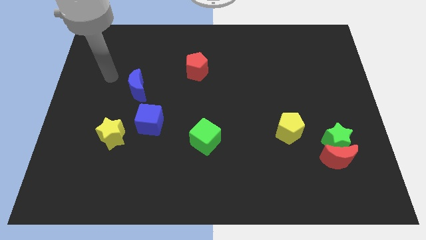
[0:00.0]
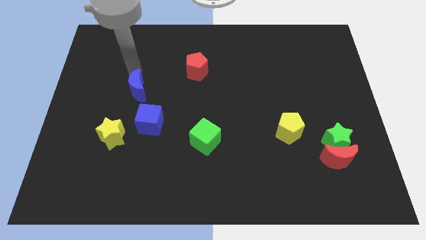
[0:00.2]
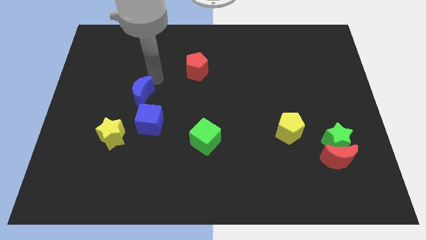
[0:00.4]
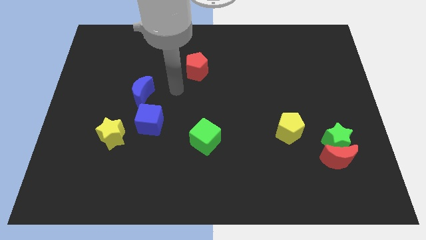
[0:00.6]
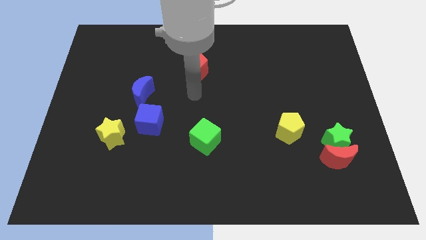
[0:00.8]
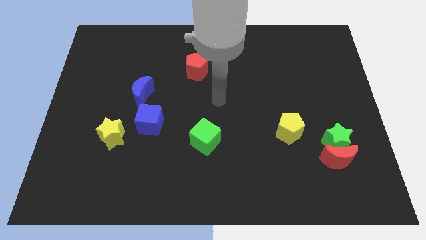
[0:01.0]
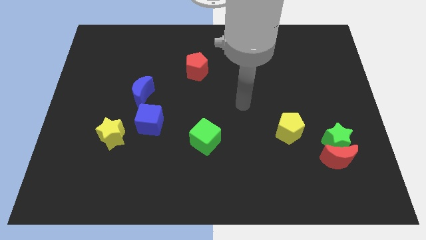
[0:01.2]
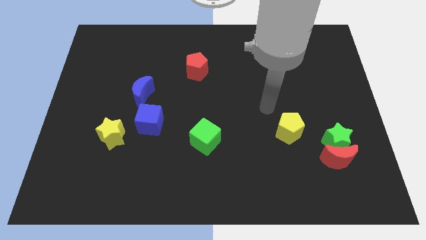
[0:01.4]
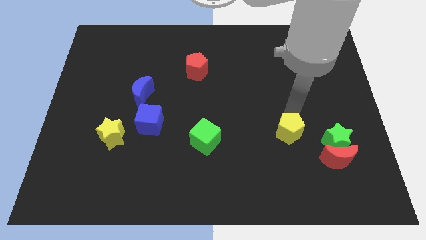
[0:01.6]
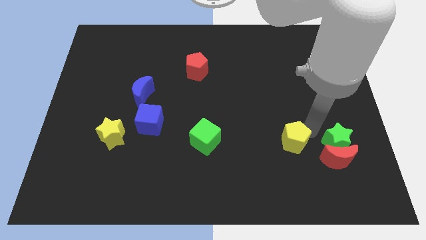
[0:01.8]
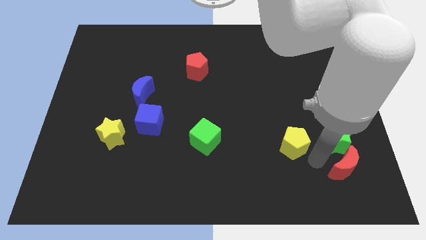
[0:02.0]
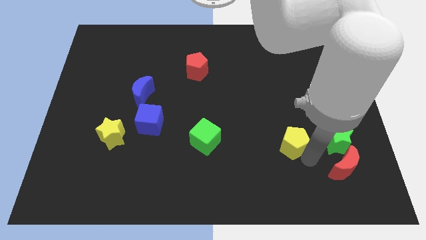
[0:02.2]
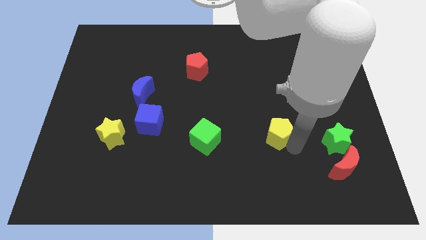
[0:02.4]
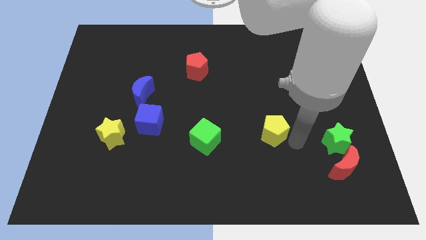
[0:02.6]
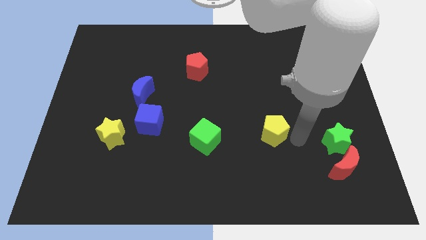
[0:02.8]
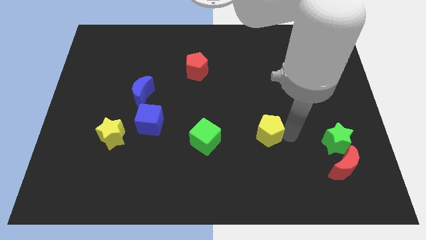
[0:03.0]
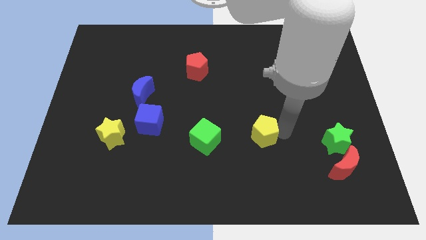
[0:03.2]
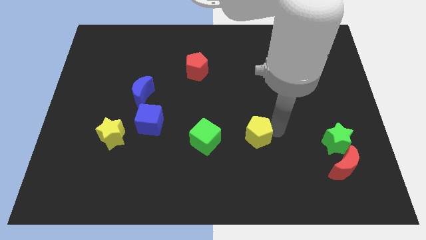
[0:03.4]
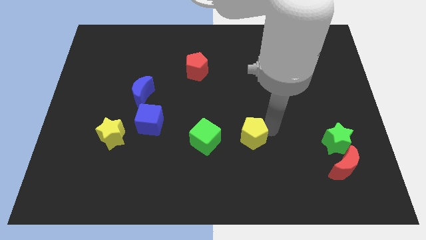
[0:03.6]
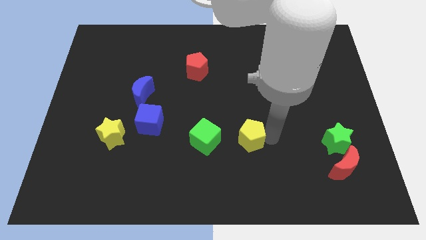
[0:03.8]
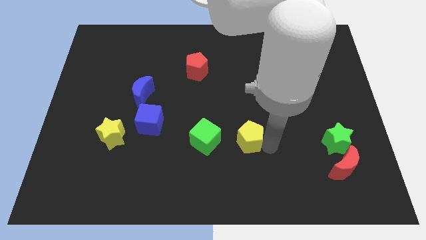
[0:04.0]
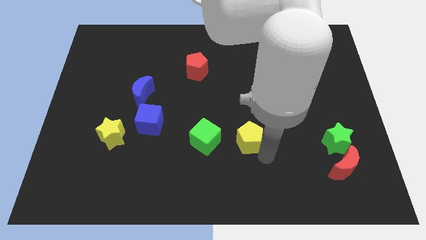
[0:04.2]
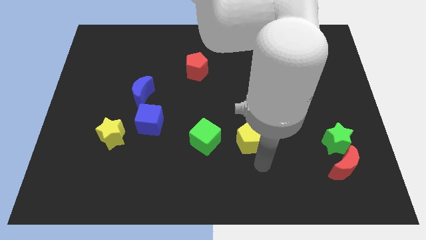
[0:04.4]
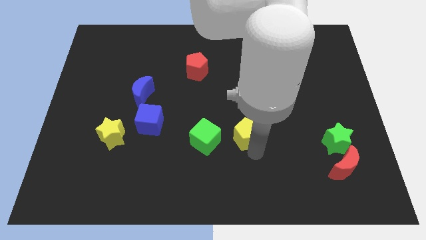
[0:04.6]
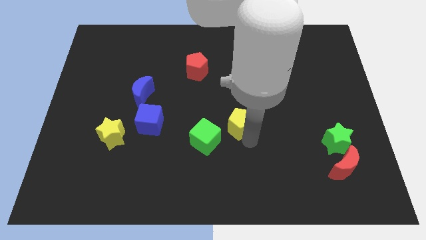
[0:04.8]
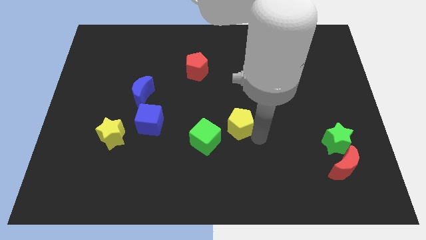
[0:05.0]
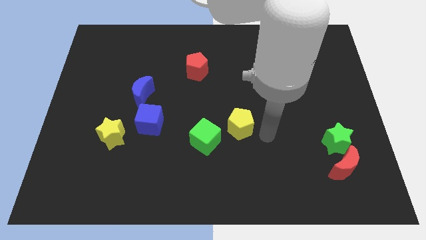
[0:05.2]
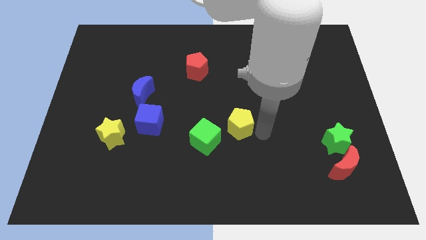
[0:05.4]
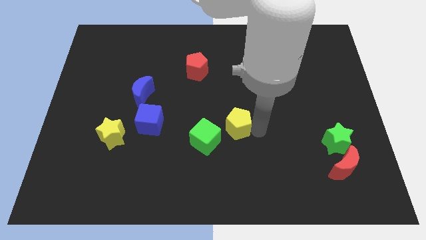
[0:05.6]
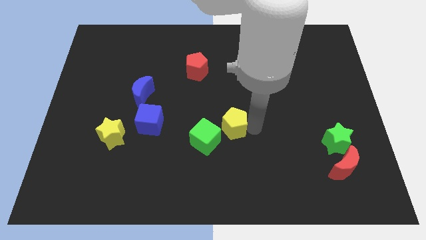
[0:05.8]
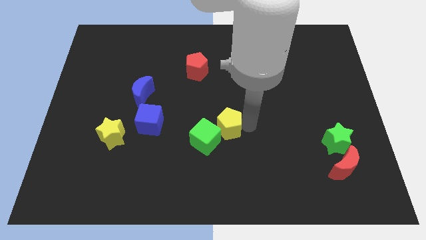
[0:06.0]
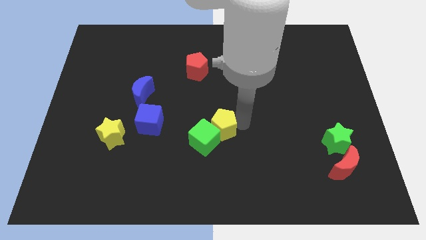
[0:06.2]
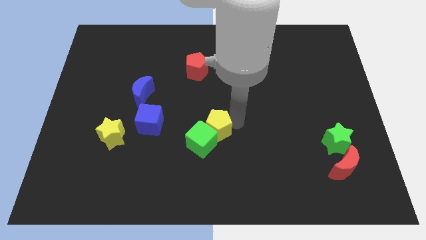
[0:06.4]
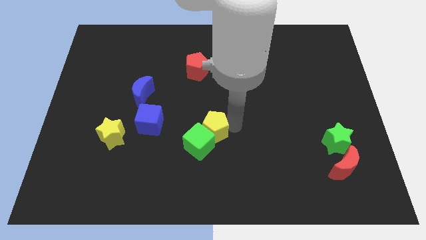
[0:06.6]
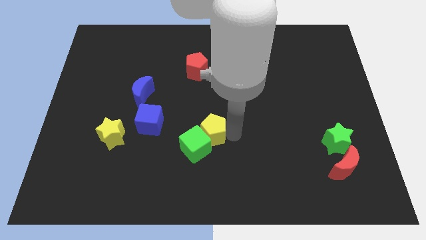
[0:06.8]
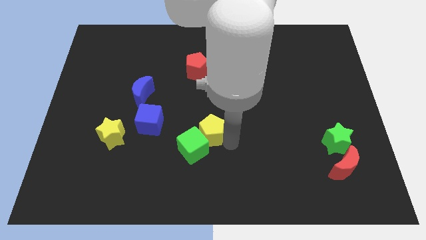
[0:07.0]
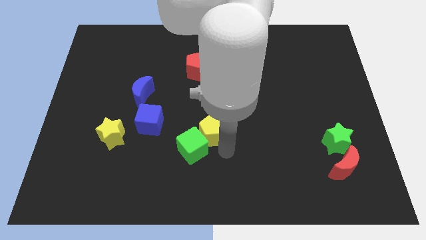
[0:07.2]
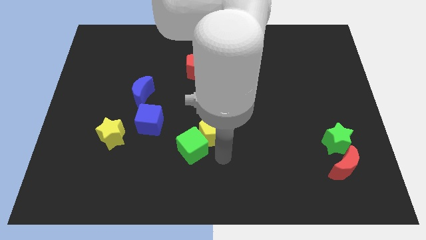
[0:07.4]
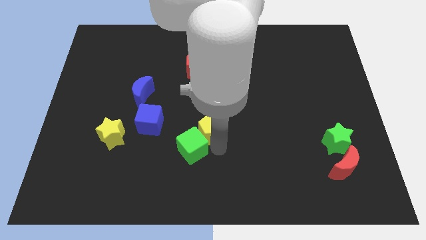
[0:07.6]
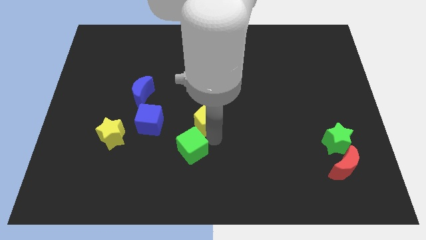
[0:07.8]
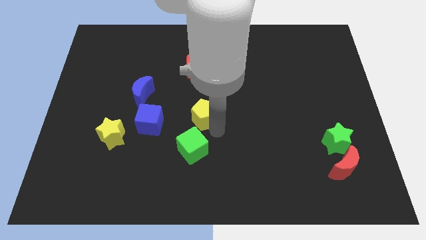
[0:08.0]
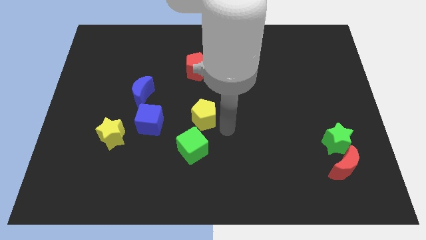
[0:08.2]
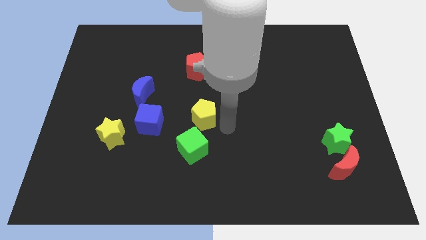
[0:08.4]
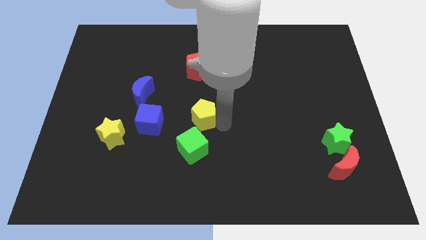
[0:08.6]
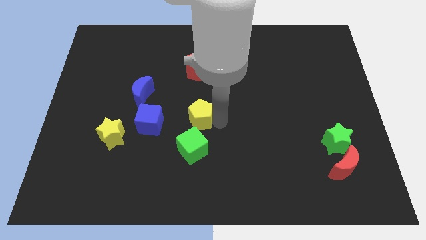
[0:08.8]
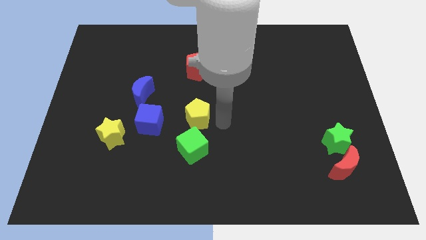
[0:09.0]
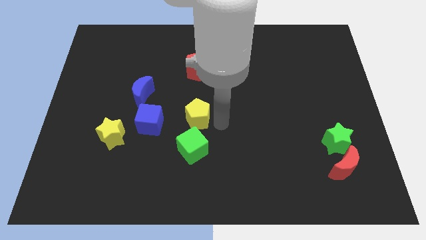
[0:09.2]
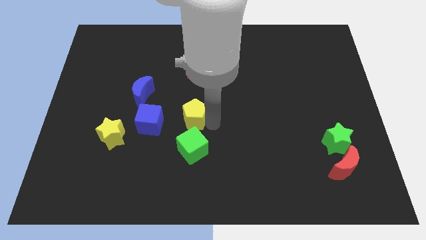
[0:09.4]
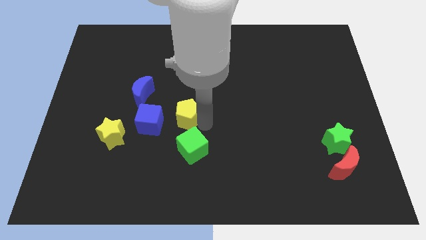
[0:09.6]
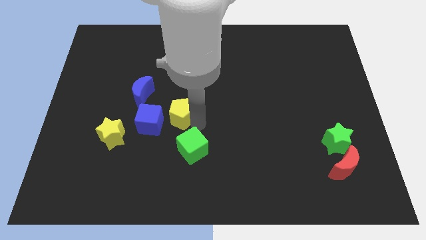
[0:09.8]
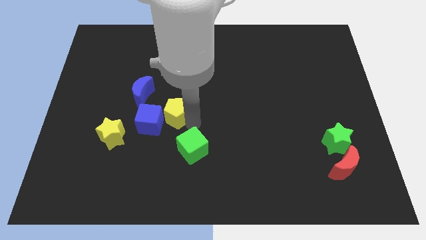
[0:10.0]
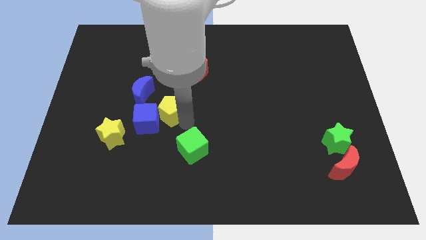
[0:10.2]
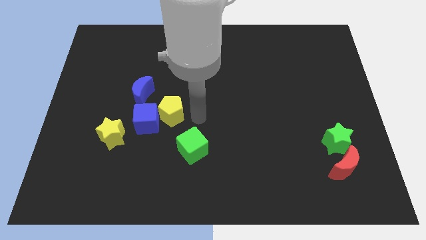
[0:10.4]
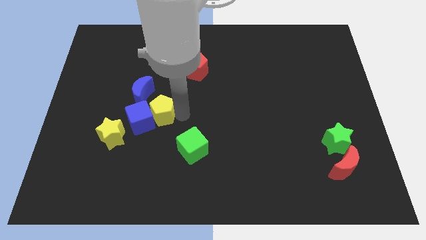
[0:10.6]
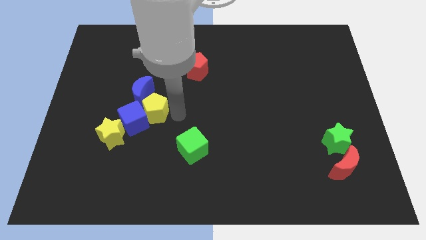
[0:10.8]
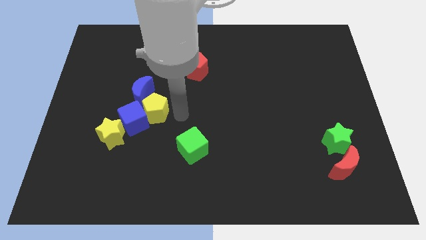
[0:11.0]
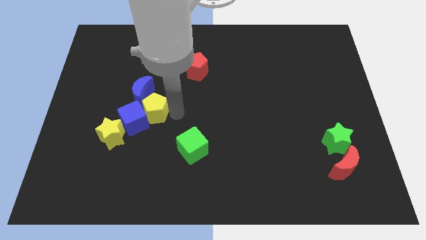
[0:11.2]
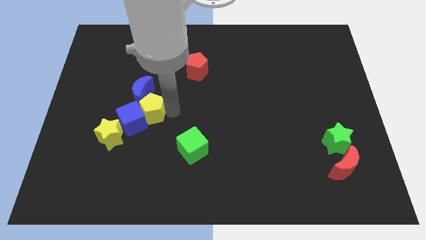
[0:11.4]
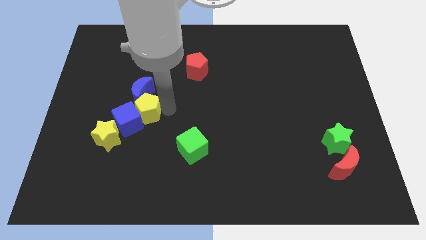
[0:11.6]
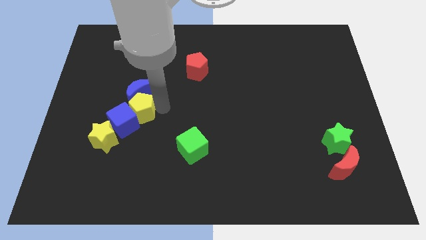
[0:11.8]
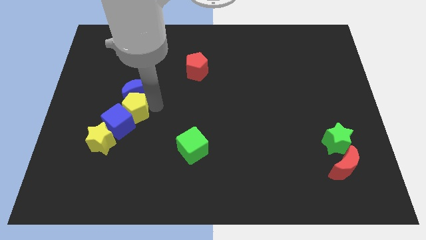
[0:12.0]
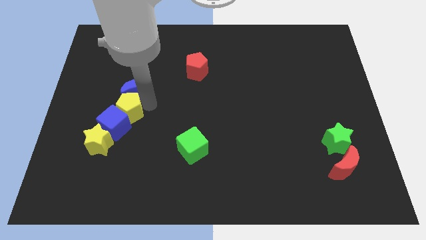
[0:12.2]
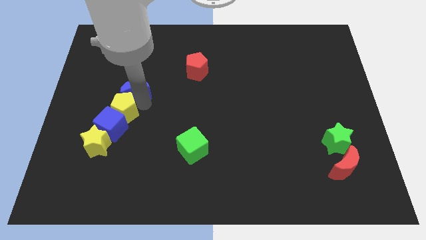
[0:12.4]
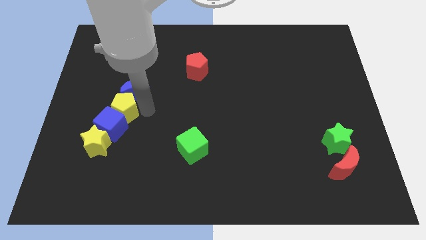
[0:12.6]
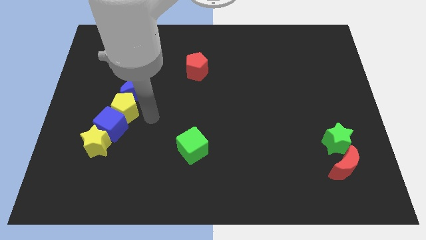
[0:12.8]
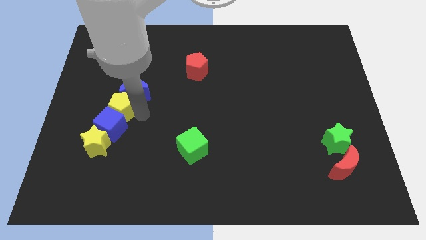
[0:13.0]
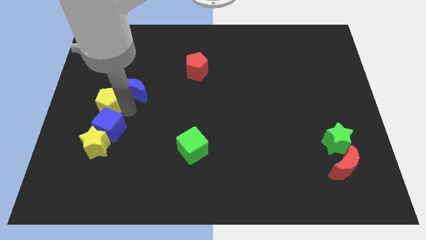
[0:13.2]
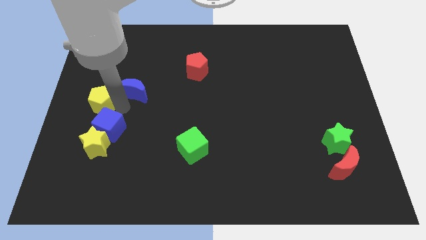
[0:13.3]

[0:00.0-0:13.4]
push the yellow pentagon to the left side of the board

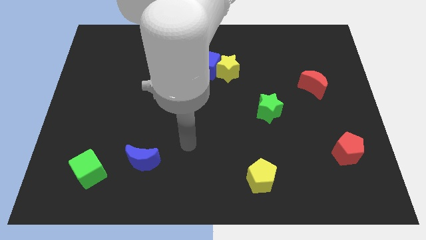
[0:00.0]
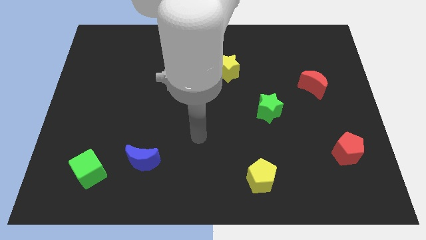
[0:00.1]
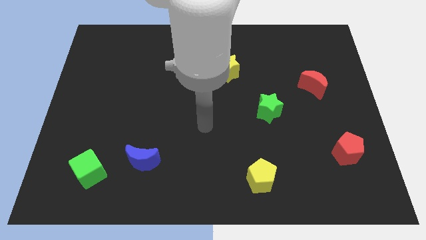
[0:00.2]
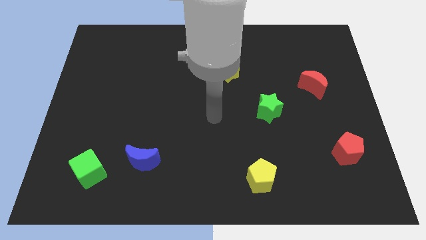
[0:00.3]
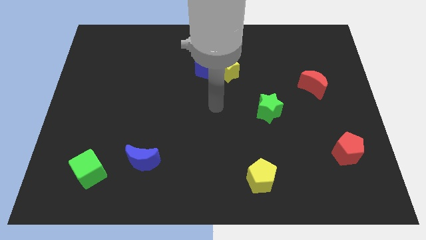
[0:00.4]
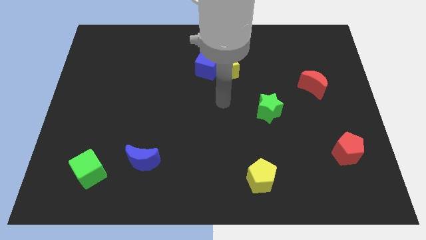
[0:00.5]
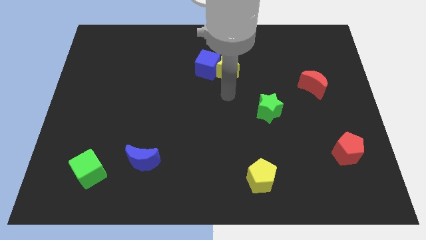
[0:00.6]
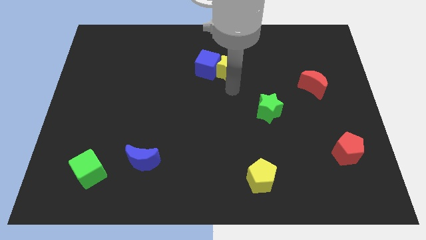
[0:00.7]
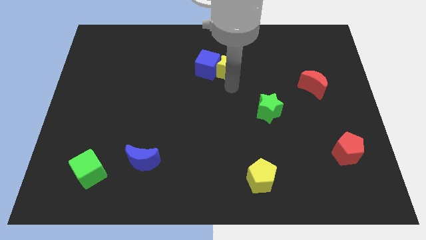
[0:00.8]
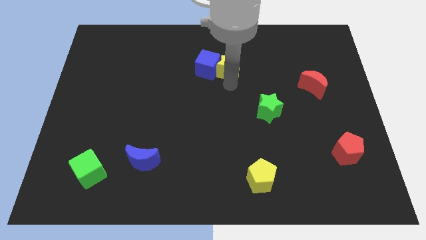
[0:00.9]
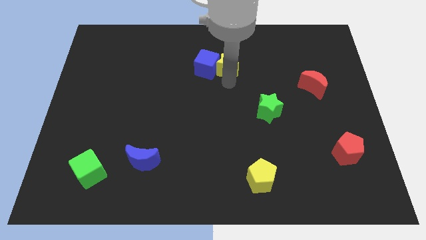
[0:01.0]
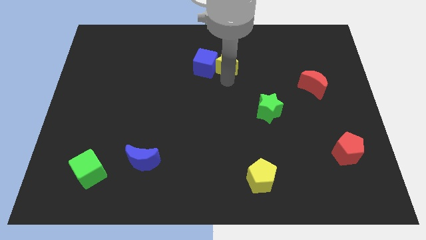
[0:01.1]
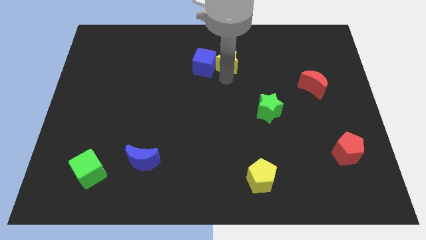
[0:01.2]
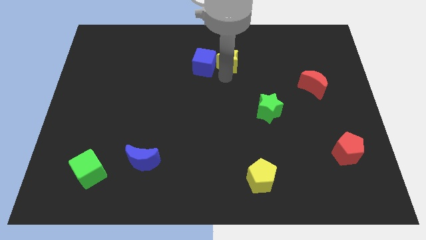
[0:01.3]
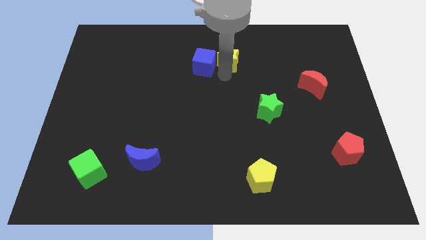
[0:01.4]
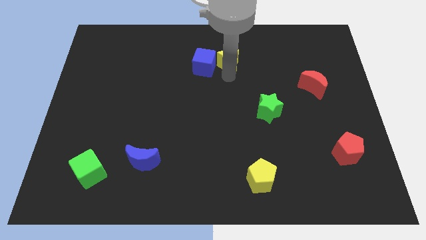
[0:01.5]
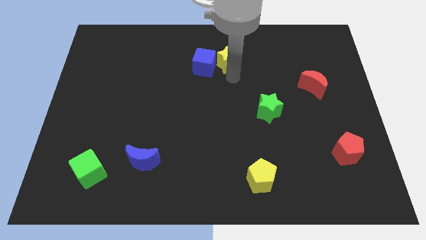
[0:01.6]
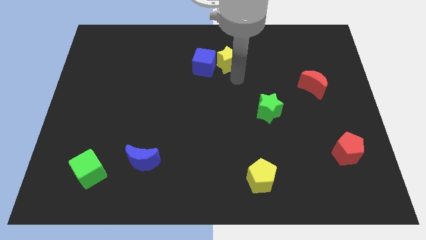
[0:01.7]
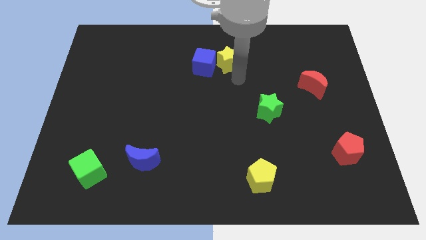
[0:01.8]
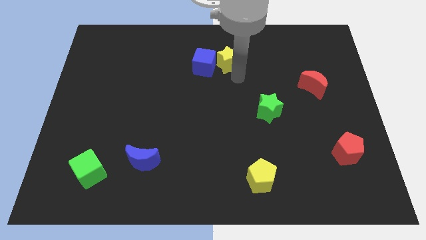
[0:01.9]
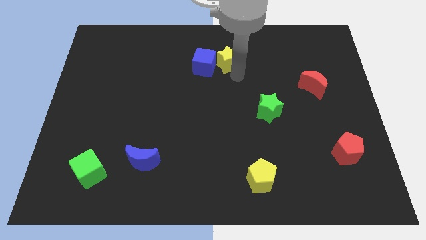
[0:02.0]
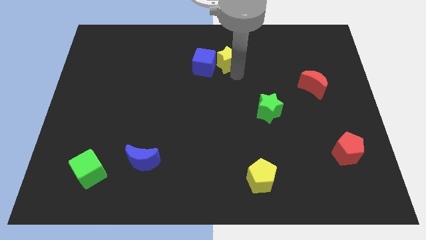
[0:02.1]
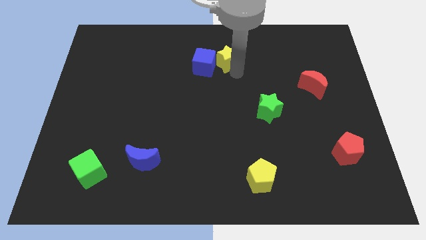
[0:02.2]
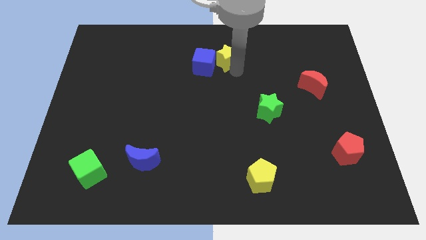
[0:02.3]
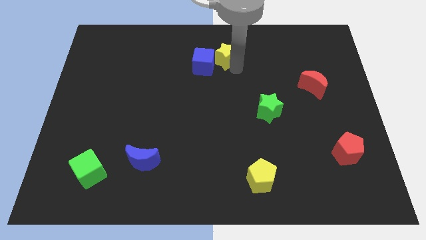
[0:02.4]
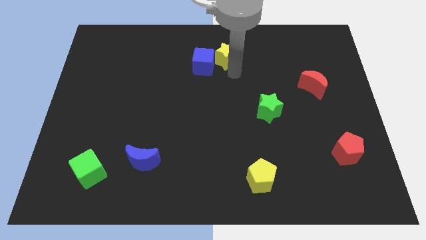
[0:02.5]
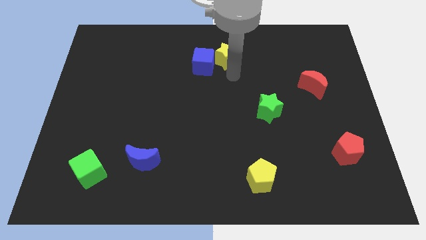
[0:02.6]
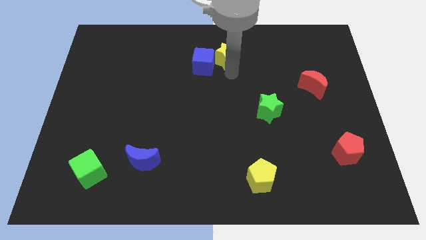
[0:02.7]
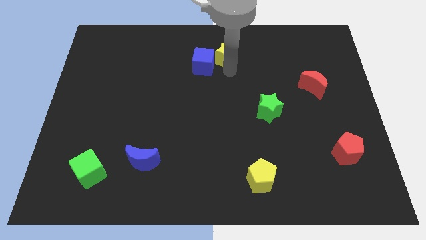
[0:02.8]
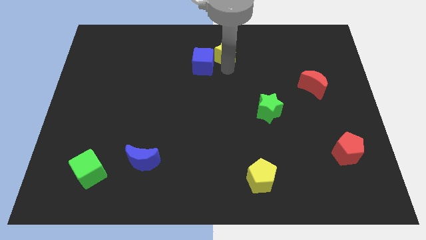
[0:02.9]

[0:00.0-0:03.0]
move the yellow star to the top
